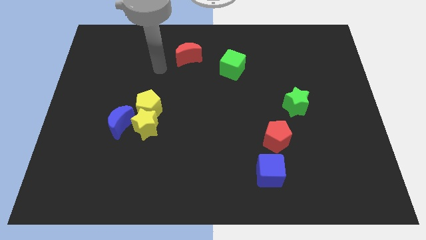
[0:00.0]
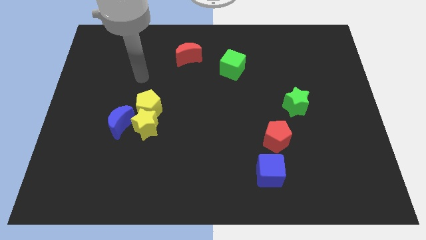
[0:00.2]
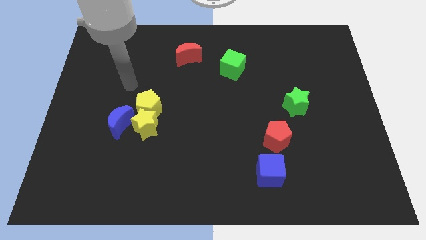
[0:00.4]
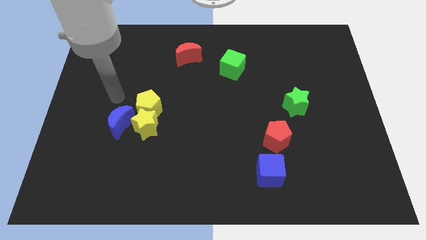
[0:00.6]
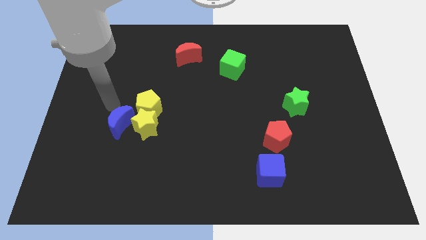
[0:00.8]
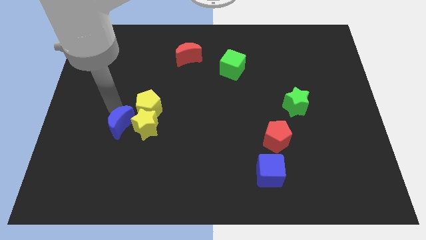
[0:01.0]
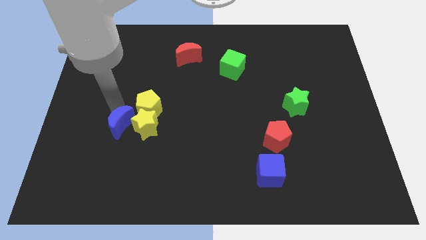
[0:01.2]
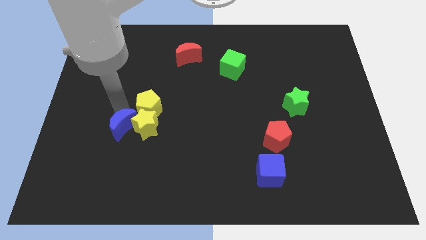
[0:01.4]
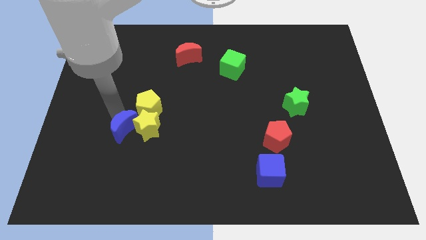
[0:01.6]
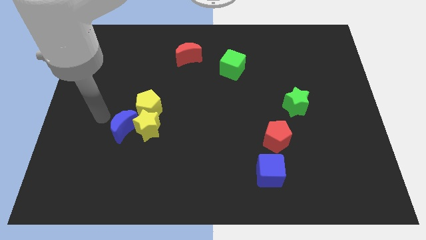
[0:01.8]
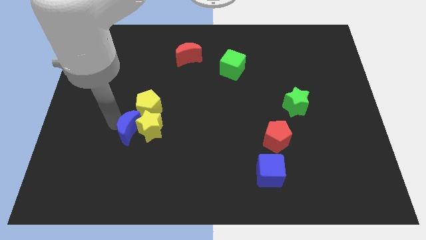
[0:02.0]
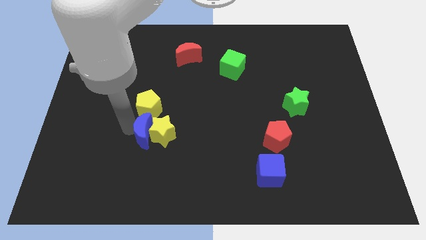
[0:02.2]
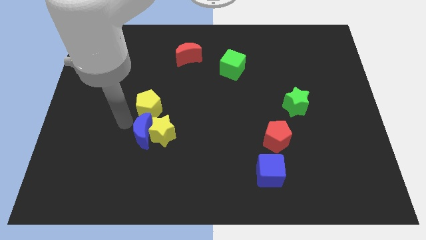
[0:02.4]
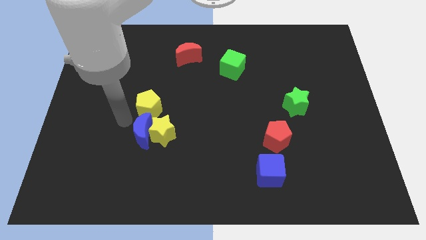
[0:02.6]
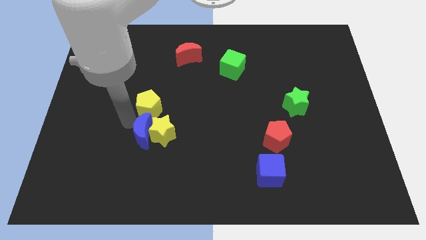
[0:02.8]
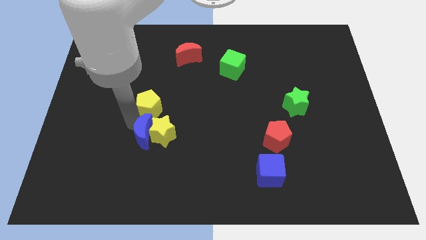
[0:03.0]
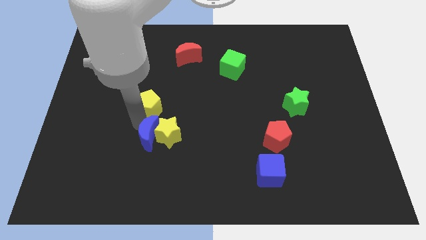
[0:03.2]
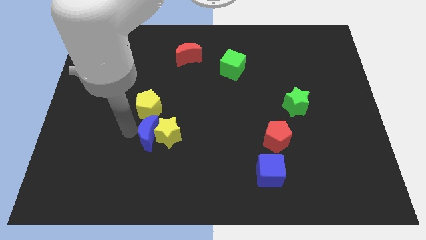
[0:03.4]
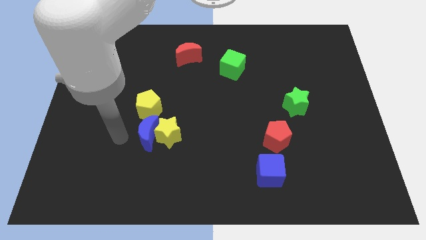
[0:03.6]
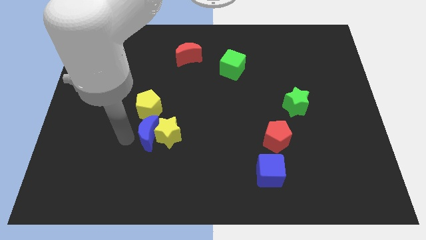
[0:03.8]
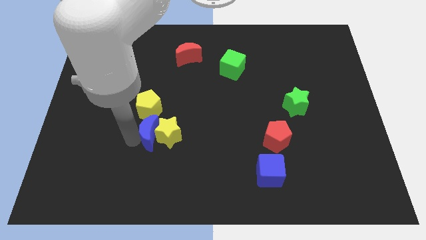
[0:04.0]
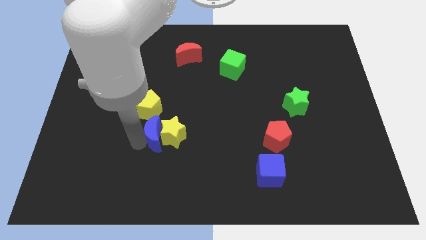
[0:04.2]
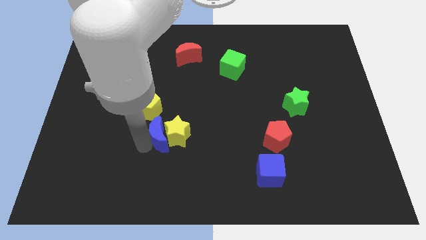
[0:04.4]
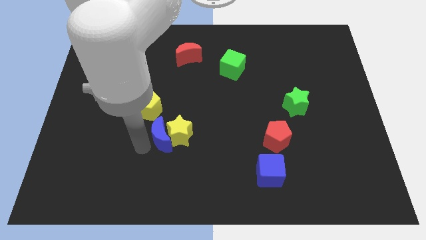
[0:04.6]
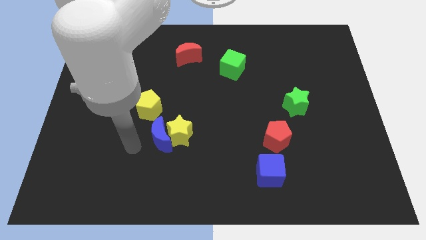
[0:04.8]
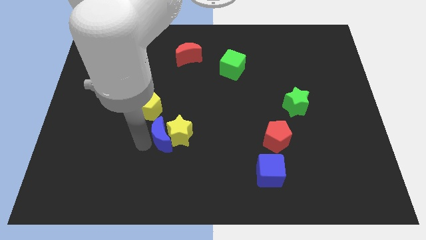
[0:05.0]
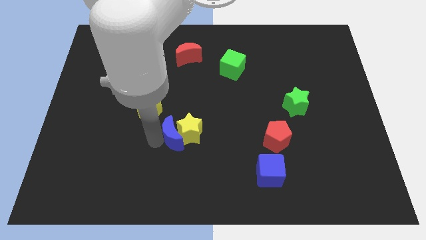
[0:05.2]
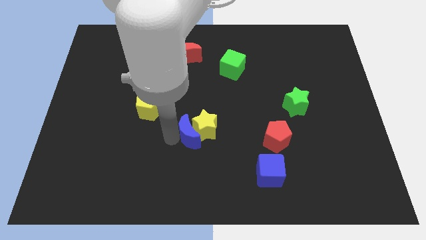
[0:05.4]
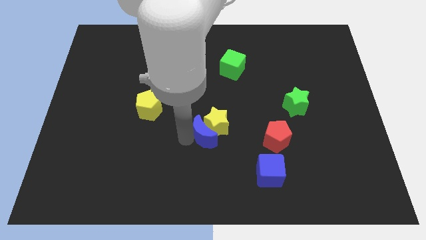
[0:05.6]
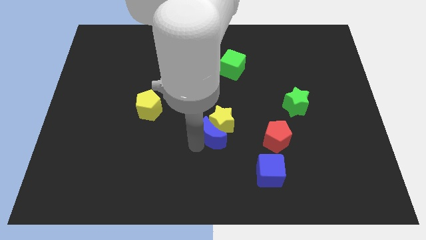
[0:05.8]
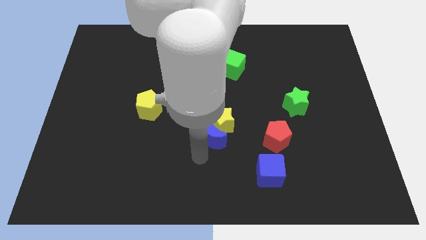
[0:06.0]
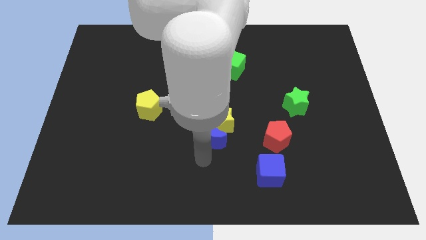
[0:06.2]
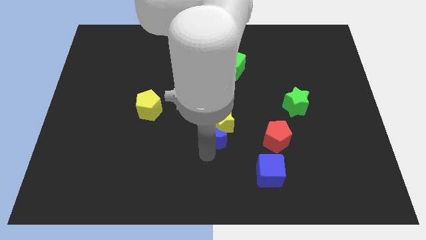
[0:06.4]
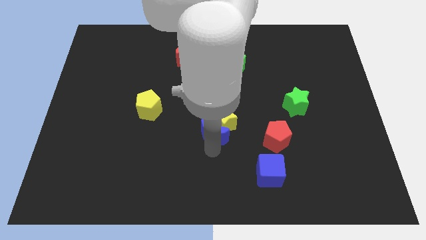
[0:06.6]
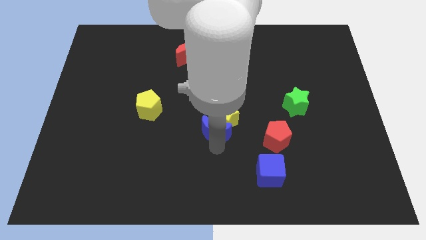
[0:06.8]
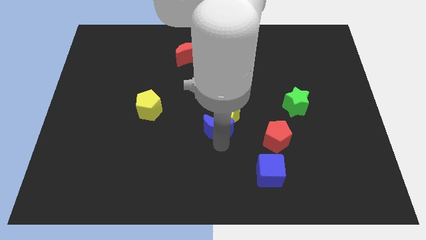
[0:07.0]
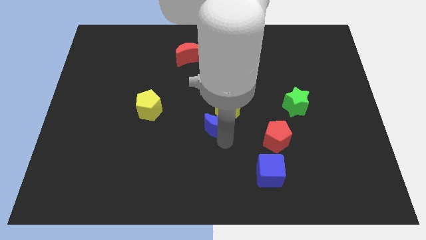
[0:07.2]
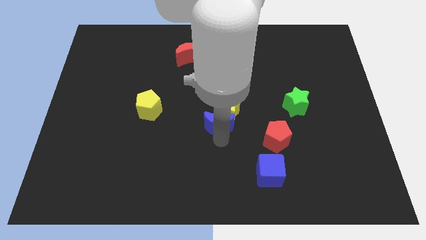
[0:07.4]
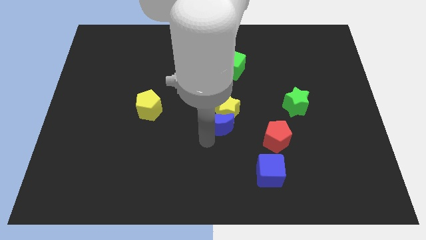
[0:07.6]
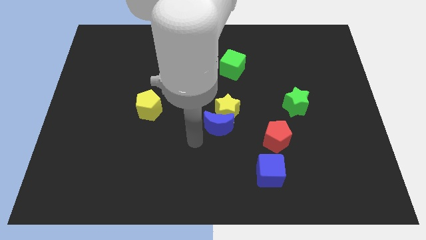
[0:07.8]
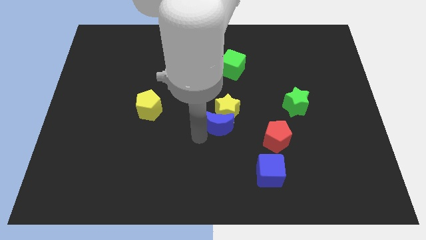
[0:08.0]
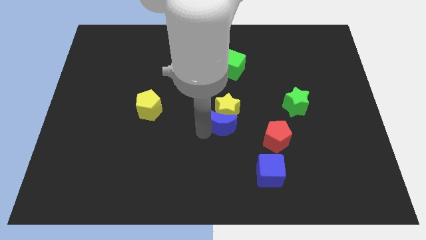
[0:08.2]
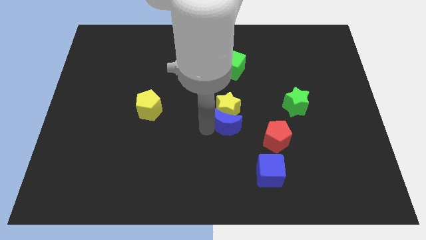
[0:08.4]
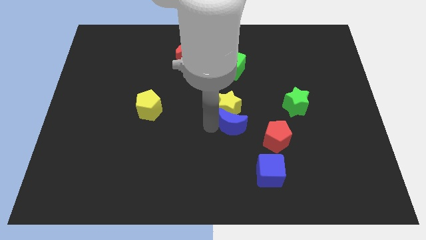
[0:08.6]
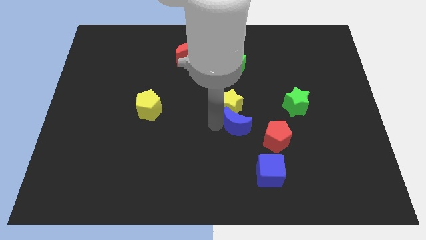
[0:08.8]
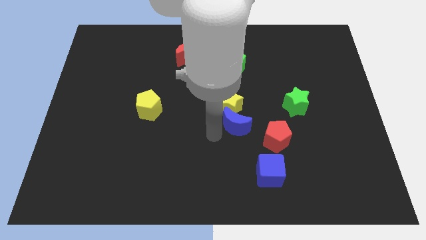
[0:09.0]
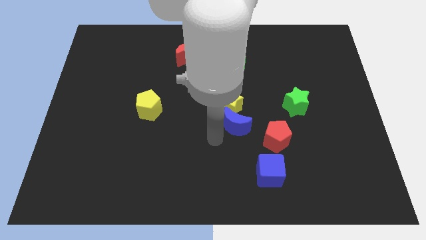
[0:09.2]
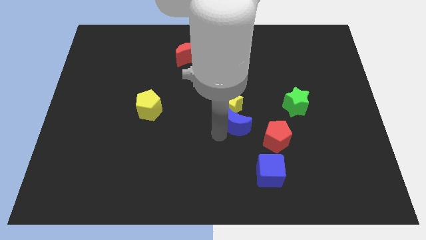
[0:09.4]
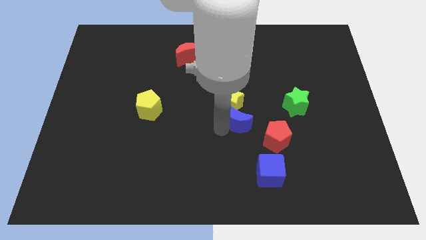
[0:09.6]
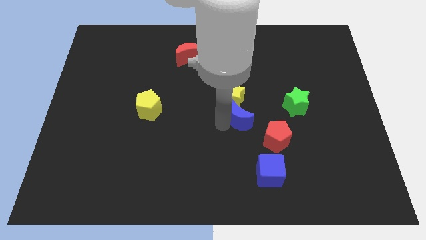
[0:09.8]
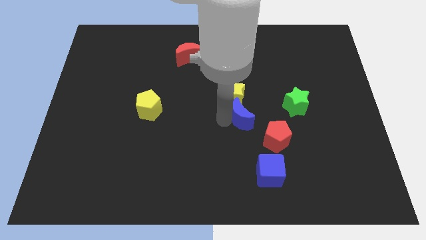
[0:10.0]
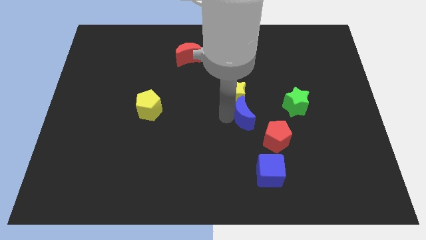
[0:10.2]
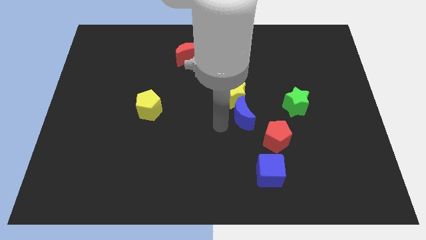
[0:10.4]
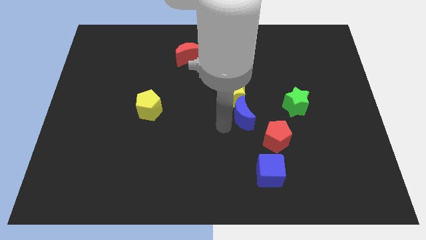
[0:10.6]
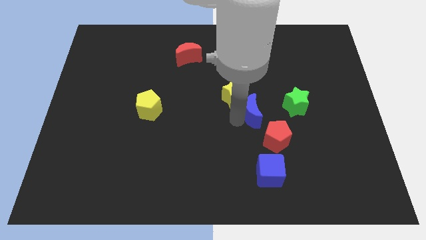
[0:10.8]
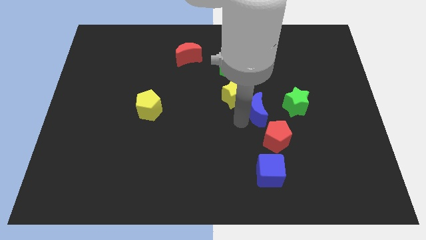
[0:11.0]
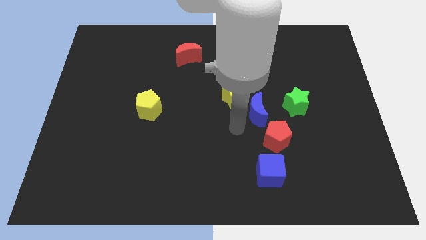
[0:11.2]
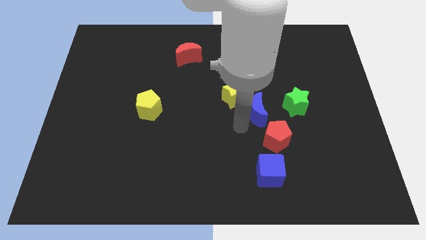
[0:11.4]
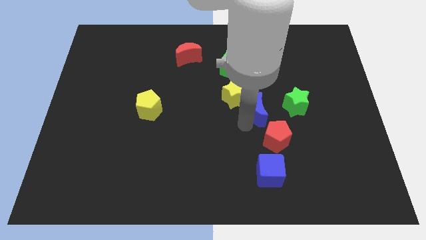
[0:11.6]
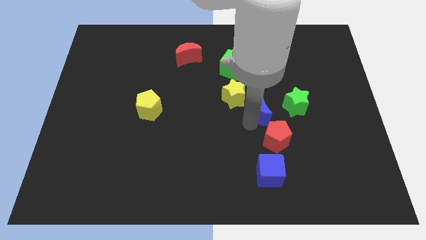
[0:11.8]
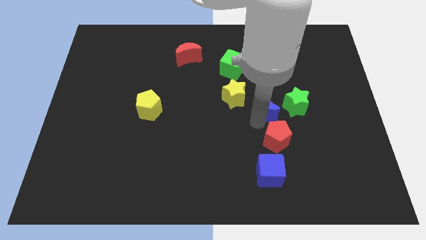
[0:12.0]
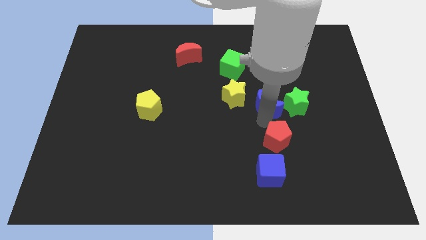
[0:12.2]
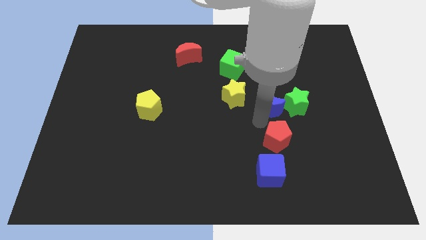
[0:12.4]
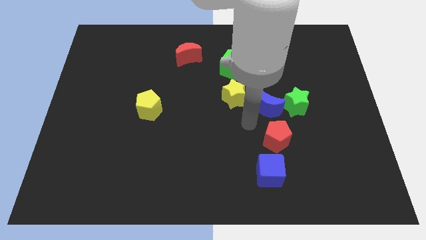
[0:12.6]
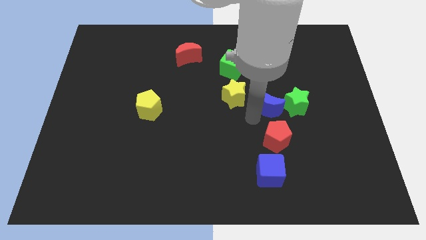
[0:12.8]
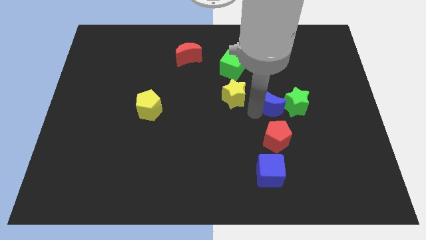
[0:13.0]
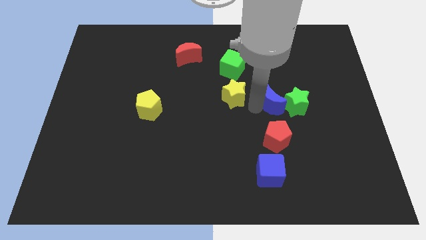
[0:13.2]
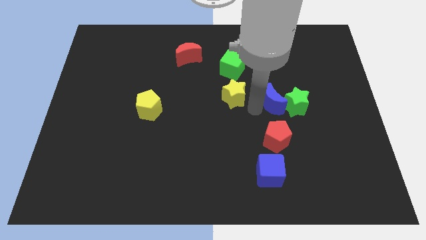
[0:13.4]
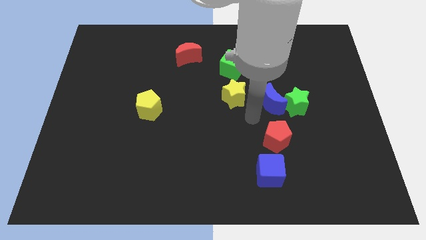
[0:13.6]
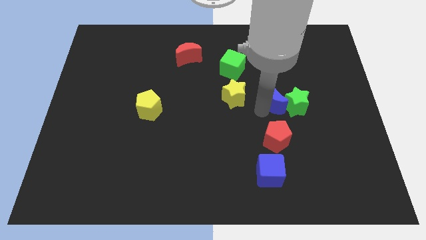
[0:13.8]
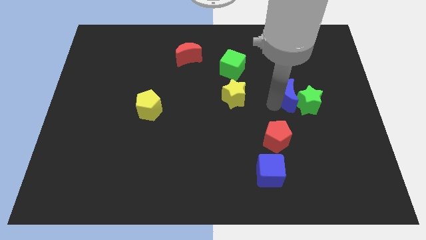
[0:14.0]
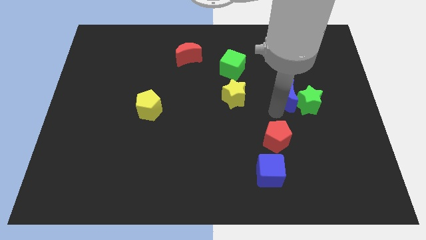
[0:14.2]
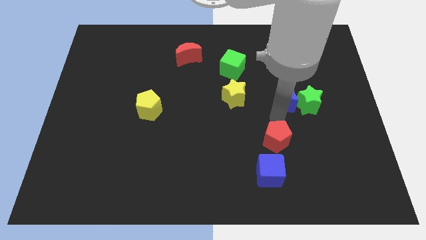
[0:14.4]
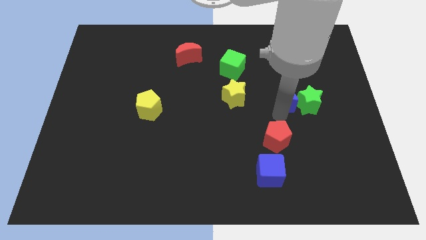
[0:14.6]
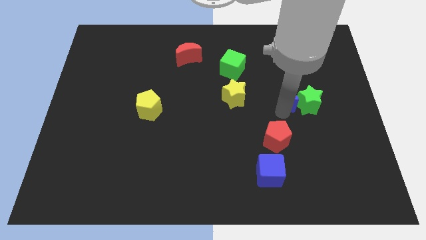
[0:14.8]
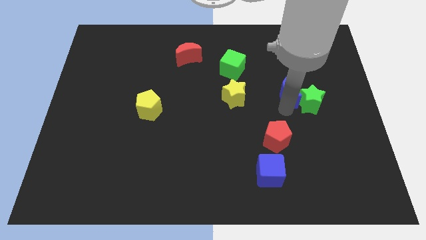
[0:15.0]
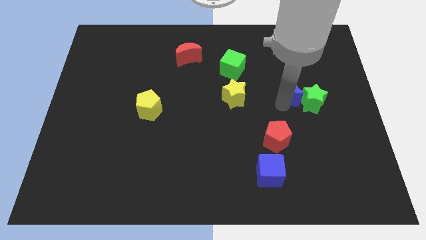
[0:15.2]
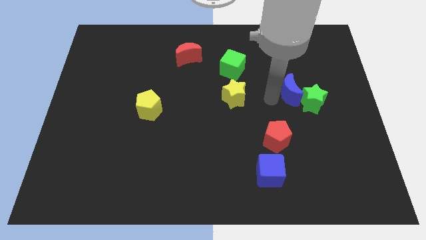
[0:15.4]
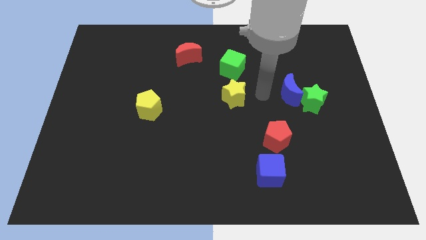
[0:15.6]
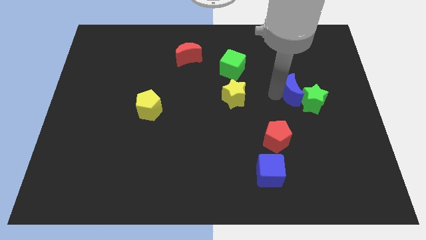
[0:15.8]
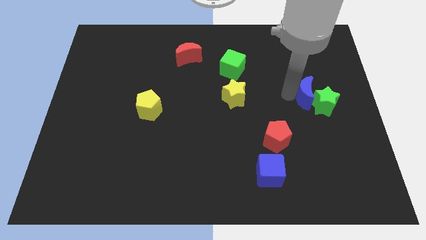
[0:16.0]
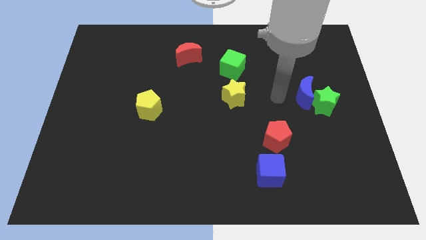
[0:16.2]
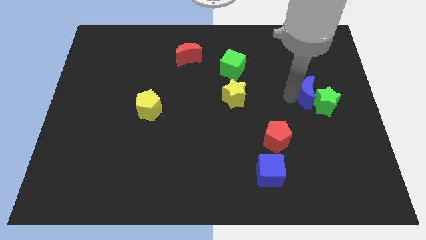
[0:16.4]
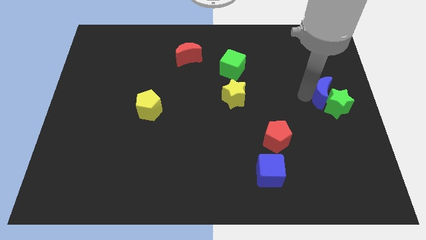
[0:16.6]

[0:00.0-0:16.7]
push the blue moon to the right side of the board
